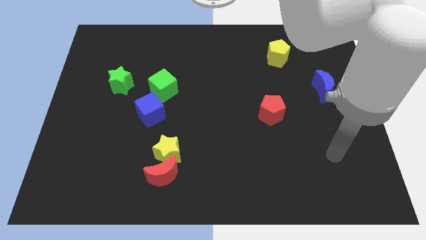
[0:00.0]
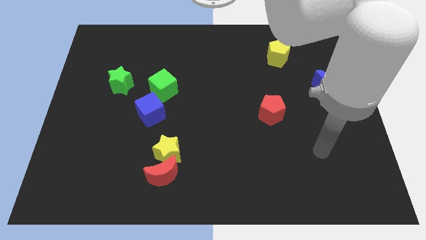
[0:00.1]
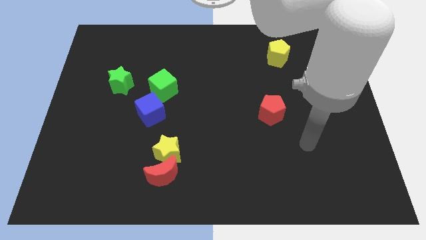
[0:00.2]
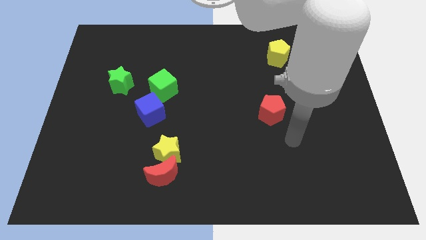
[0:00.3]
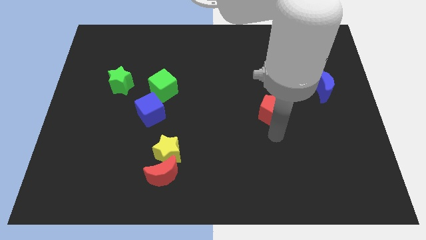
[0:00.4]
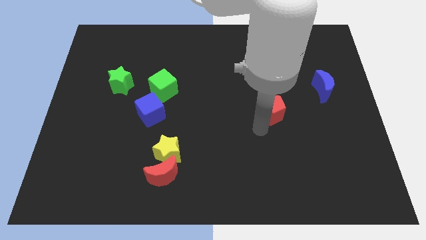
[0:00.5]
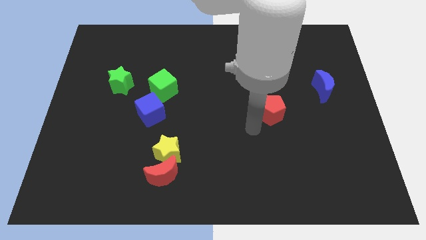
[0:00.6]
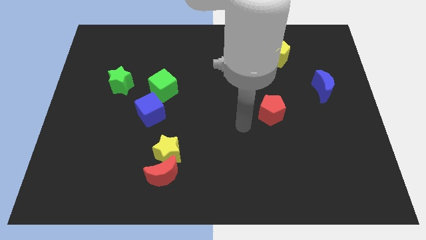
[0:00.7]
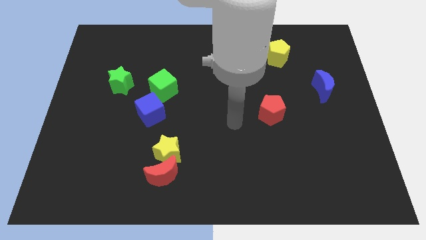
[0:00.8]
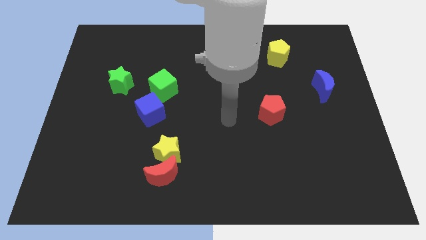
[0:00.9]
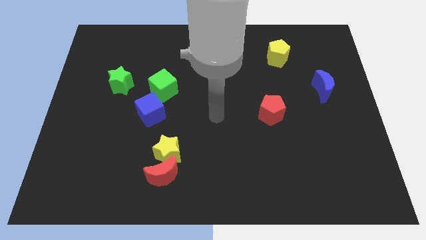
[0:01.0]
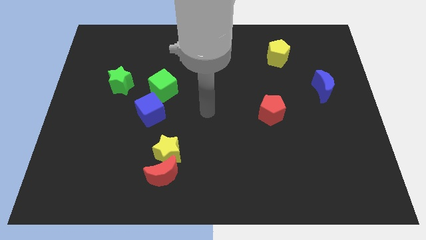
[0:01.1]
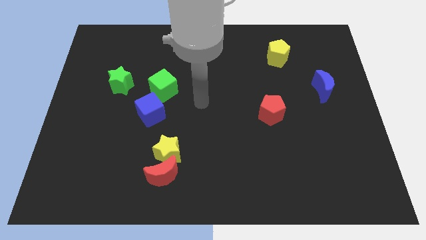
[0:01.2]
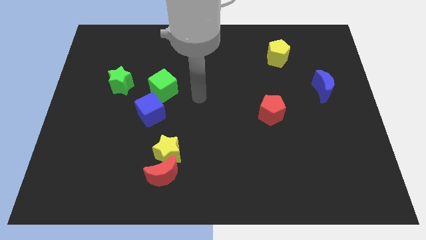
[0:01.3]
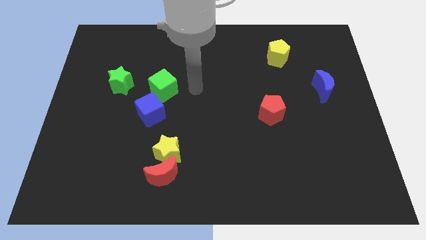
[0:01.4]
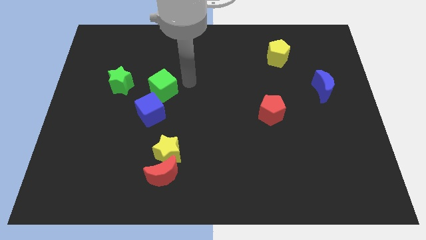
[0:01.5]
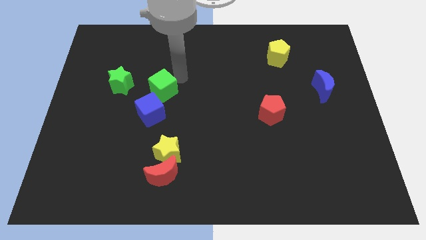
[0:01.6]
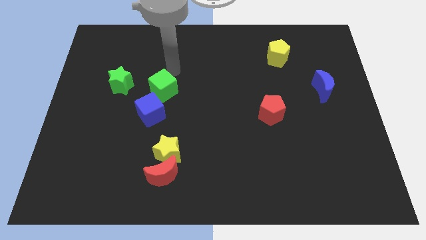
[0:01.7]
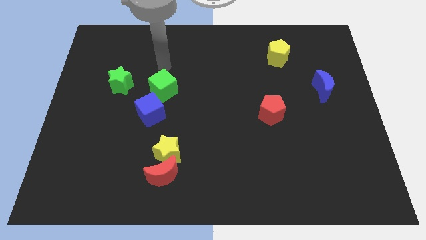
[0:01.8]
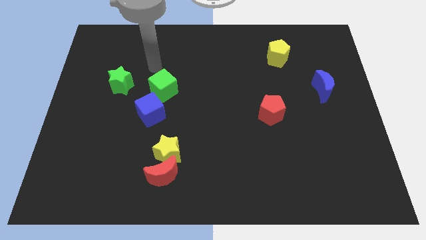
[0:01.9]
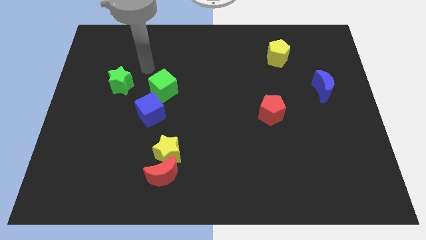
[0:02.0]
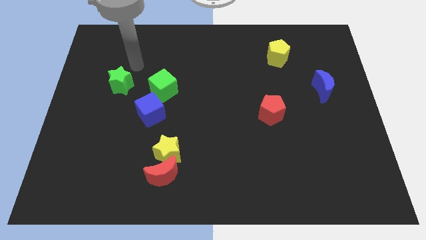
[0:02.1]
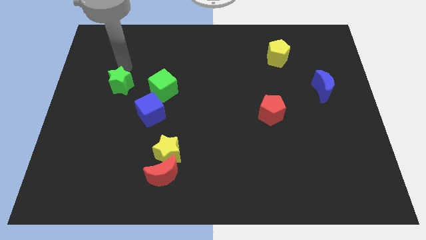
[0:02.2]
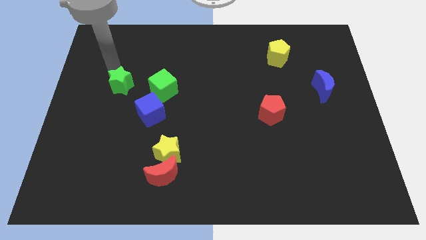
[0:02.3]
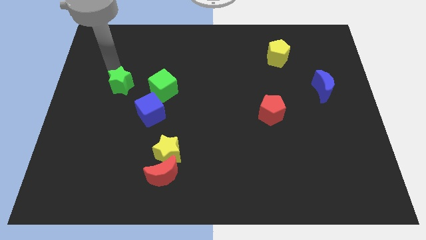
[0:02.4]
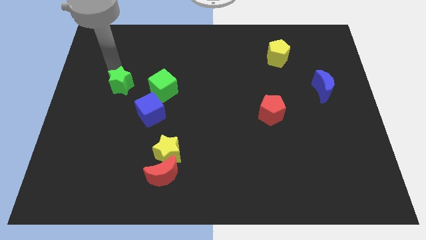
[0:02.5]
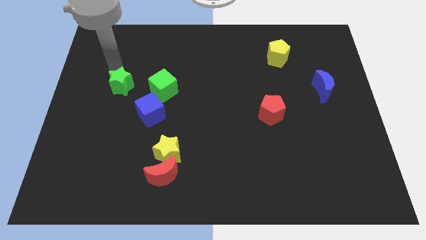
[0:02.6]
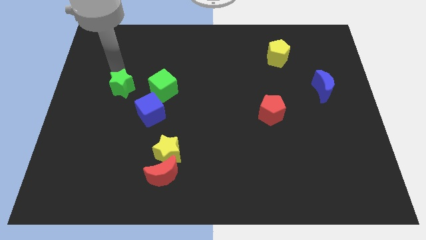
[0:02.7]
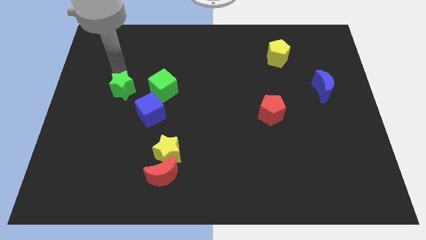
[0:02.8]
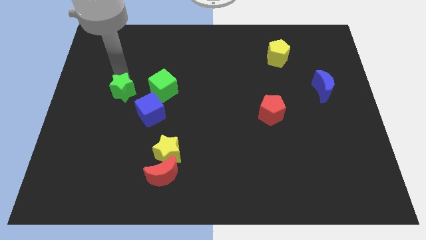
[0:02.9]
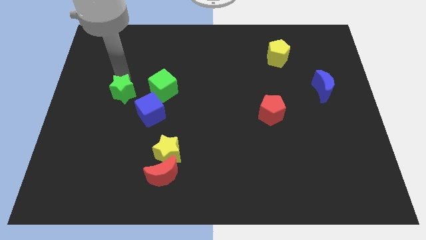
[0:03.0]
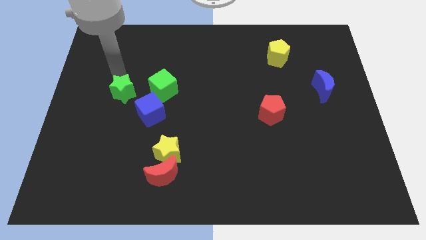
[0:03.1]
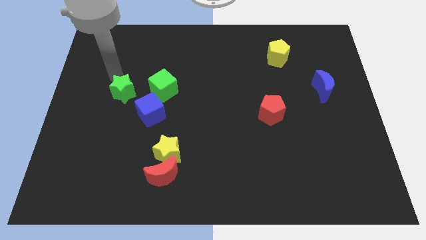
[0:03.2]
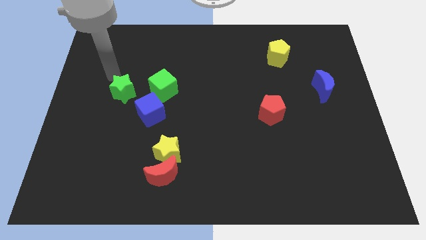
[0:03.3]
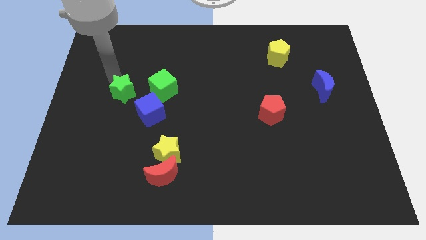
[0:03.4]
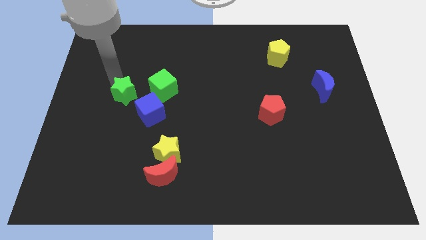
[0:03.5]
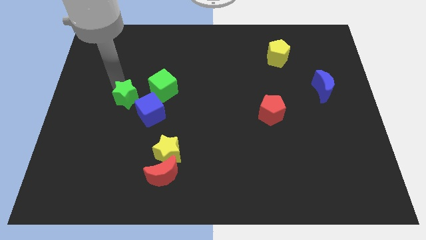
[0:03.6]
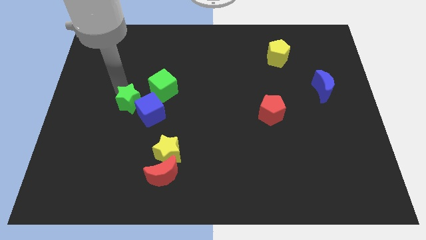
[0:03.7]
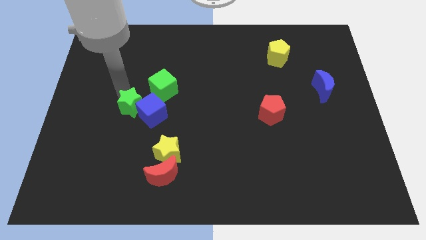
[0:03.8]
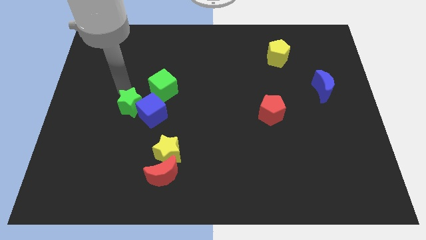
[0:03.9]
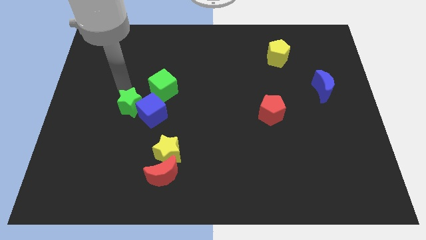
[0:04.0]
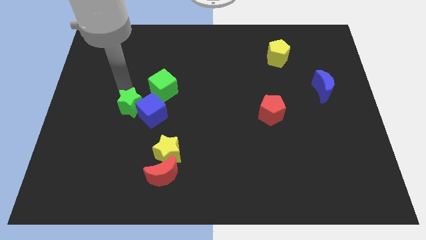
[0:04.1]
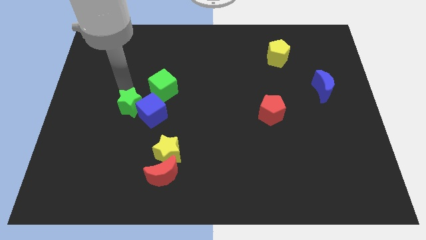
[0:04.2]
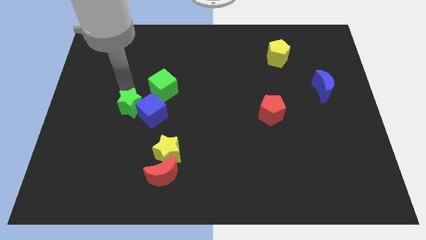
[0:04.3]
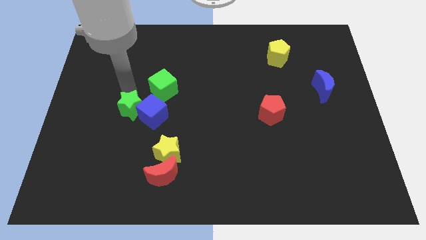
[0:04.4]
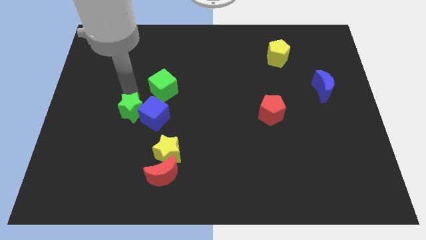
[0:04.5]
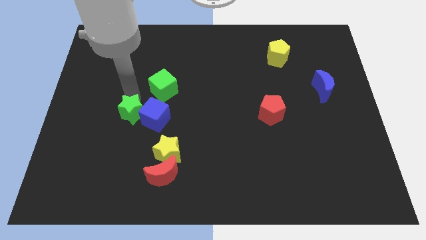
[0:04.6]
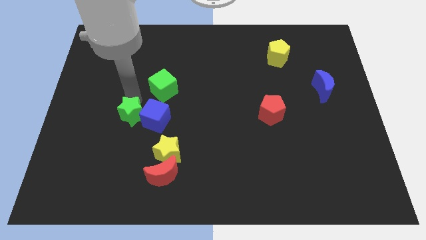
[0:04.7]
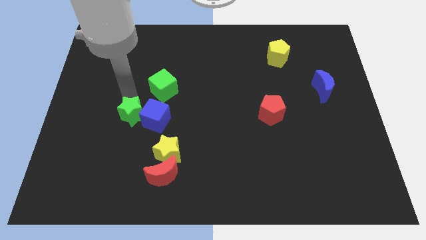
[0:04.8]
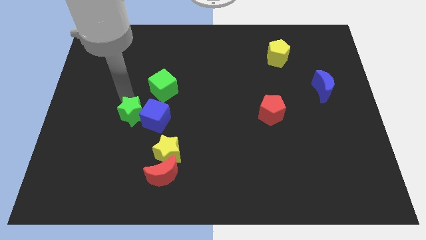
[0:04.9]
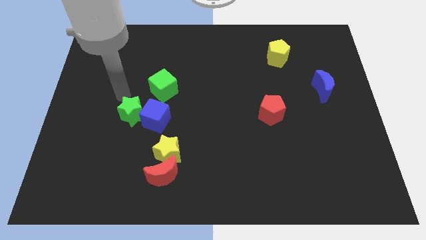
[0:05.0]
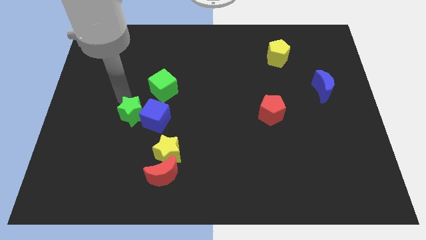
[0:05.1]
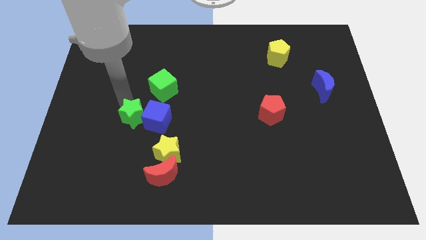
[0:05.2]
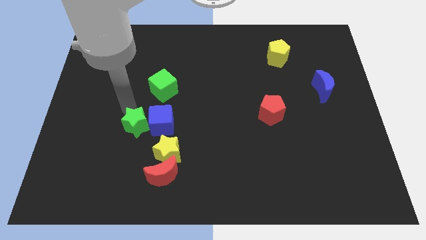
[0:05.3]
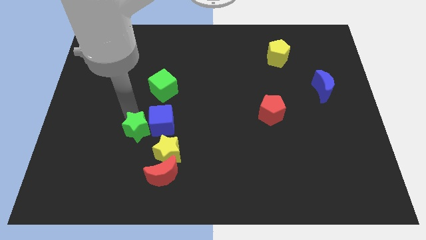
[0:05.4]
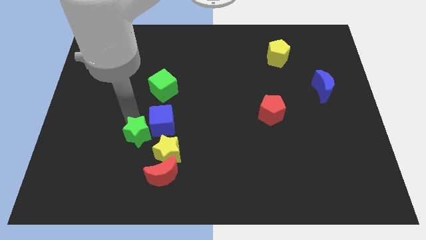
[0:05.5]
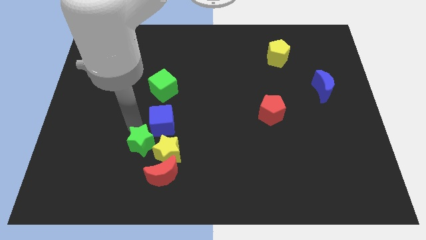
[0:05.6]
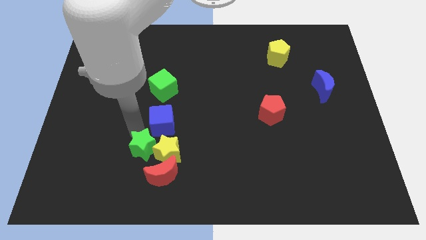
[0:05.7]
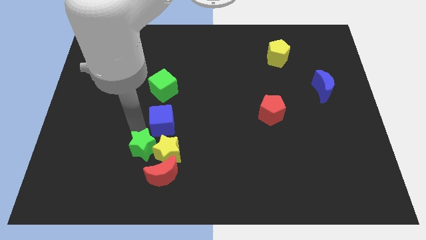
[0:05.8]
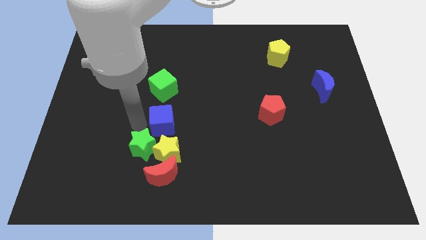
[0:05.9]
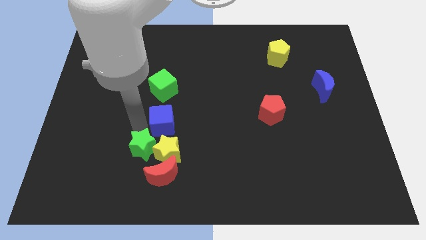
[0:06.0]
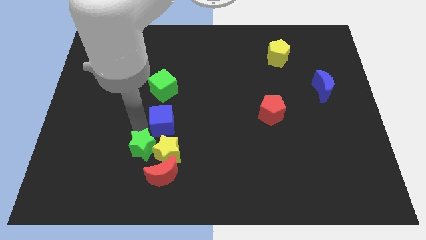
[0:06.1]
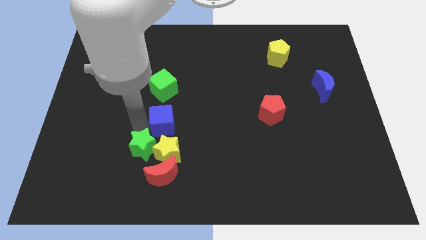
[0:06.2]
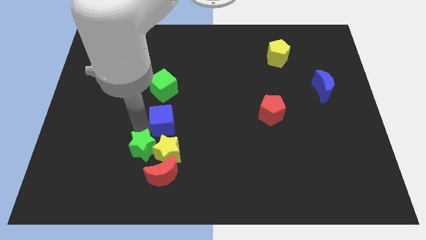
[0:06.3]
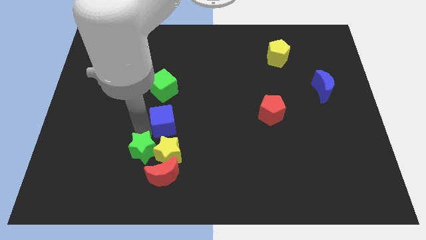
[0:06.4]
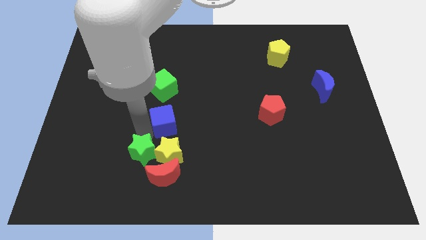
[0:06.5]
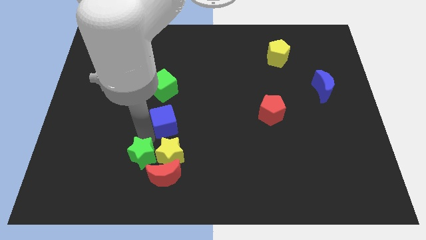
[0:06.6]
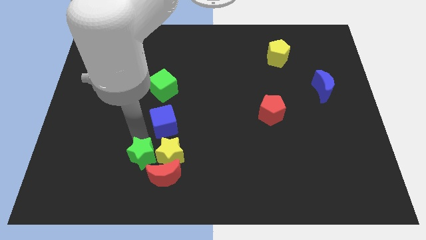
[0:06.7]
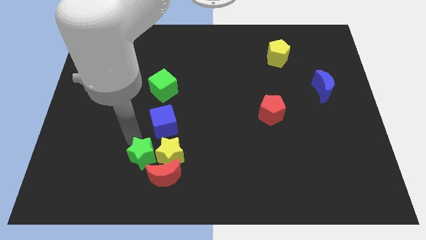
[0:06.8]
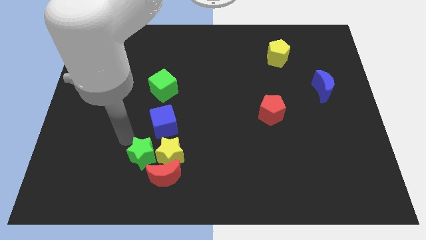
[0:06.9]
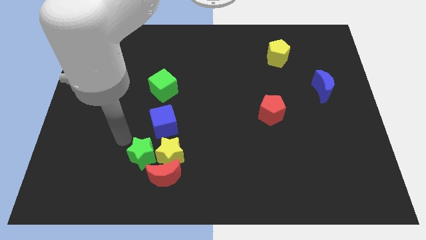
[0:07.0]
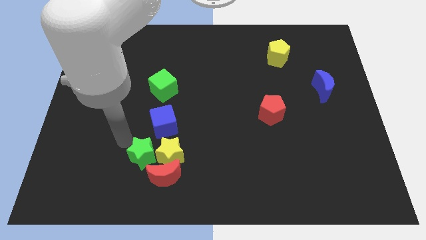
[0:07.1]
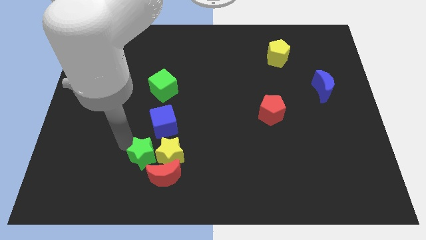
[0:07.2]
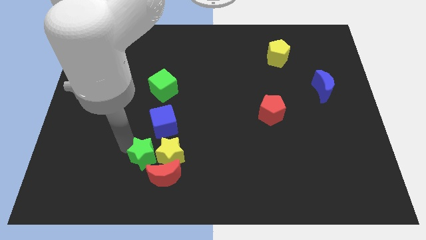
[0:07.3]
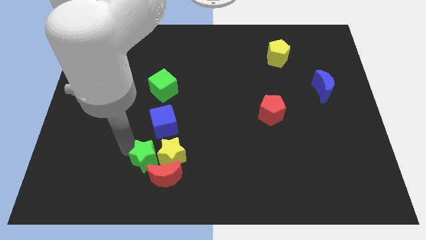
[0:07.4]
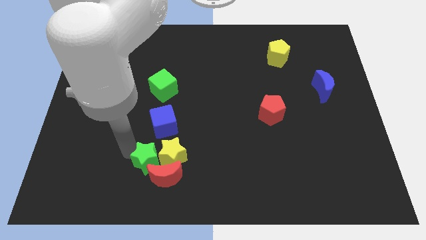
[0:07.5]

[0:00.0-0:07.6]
slide the green star close to the red moon

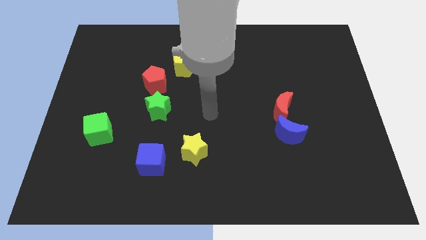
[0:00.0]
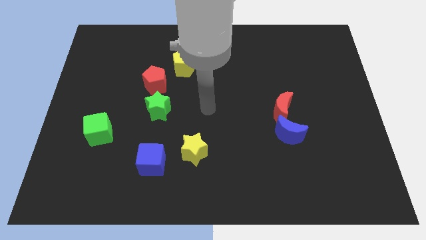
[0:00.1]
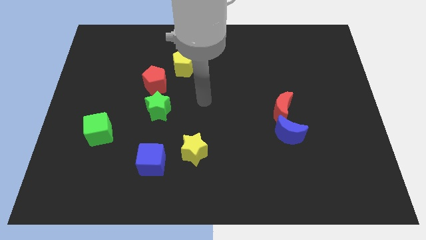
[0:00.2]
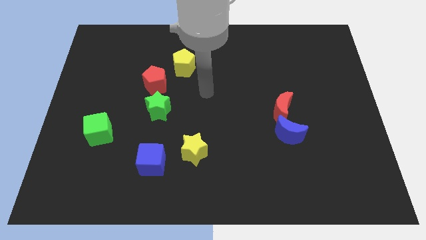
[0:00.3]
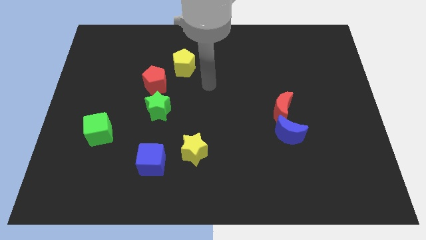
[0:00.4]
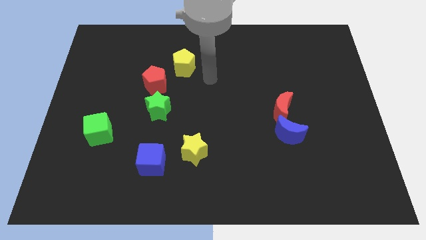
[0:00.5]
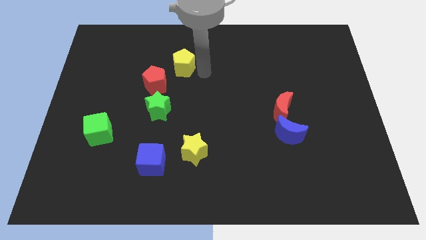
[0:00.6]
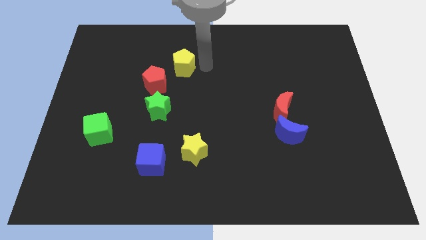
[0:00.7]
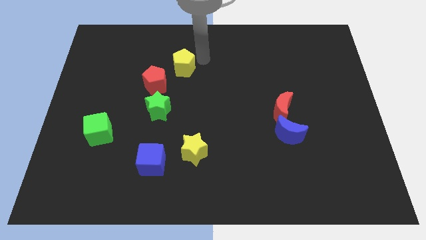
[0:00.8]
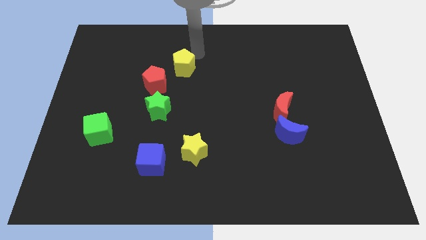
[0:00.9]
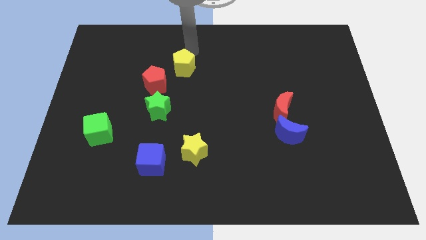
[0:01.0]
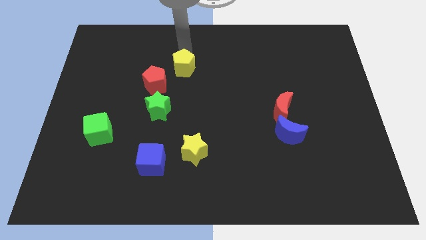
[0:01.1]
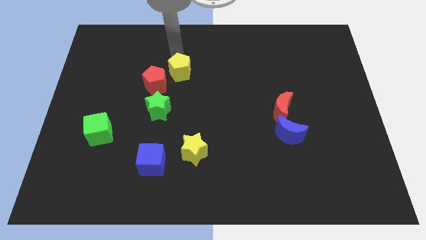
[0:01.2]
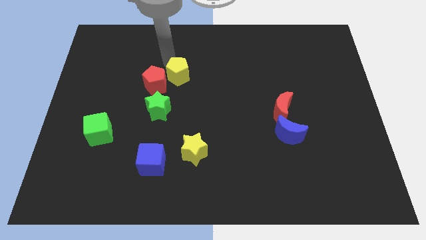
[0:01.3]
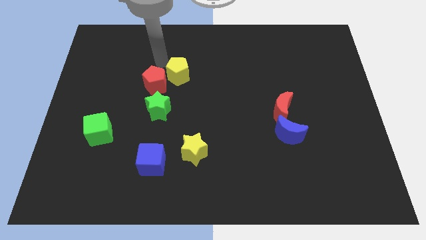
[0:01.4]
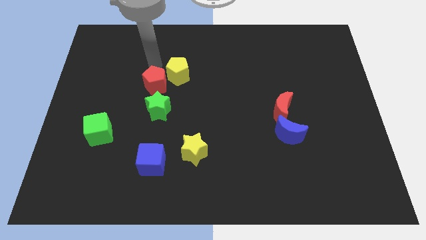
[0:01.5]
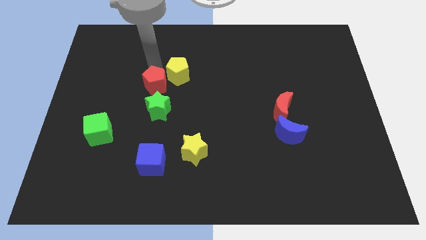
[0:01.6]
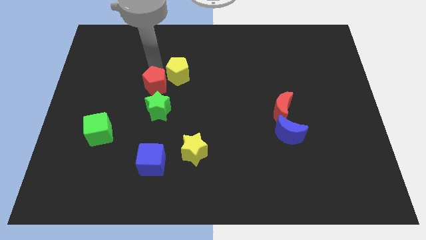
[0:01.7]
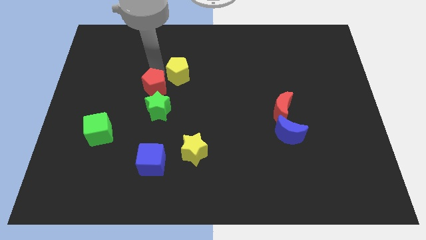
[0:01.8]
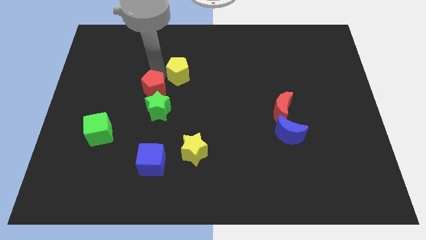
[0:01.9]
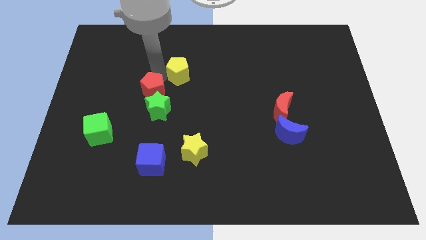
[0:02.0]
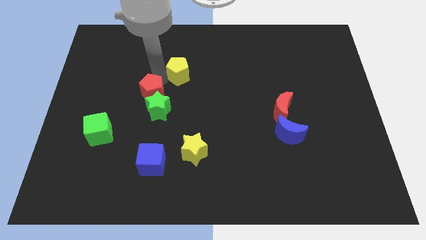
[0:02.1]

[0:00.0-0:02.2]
slide the red pentagon close to the green star
